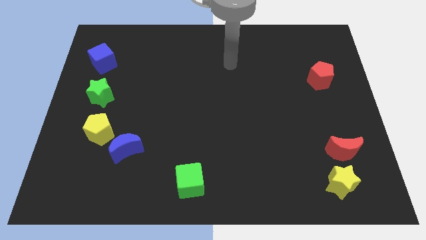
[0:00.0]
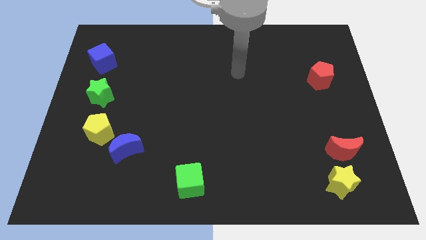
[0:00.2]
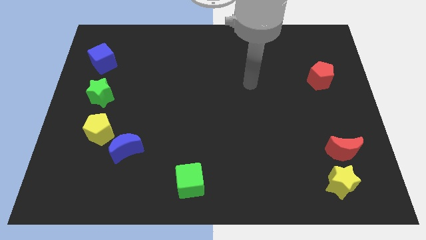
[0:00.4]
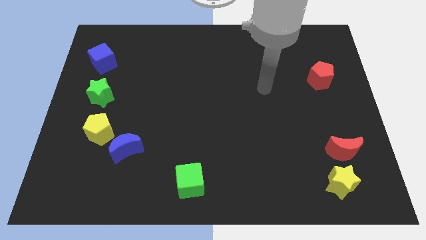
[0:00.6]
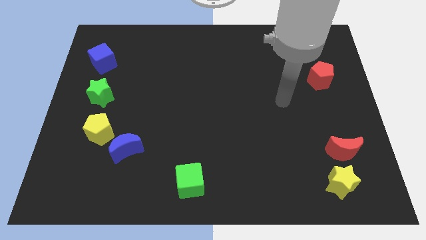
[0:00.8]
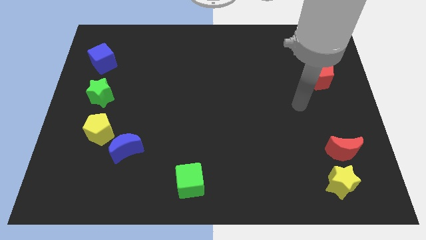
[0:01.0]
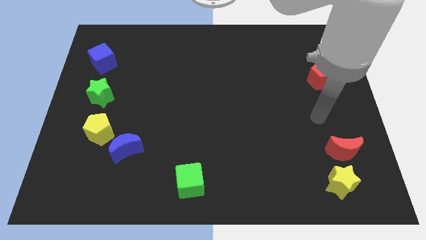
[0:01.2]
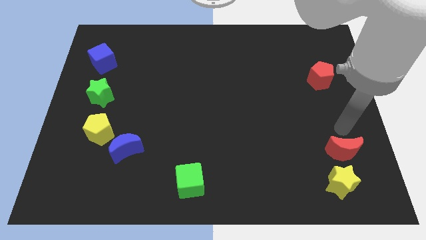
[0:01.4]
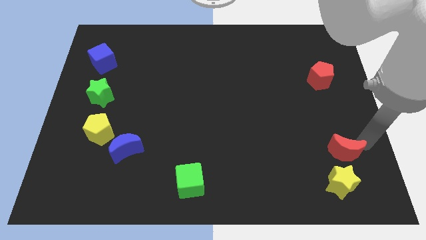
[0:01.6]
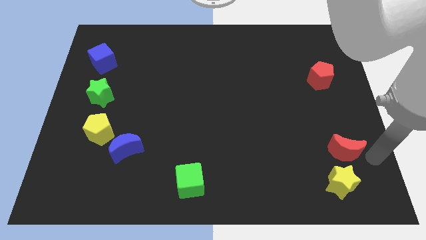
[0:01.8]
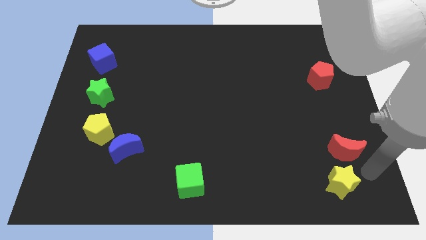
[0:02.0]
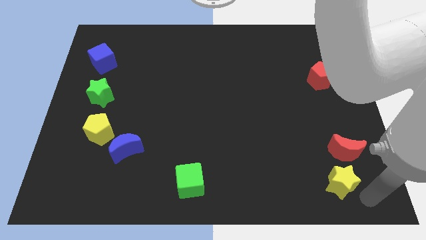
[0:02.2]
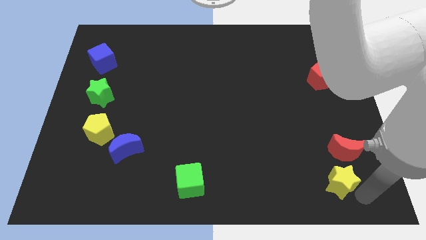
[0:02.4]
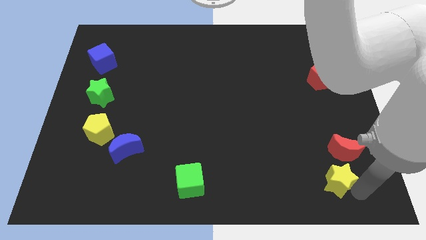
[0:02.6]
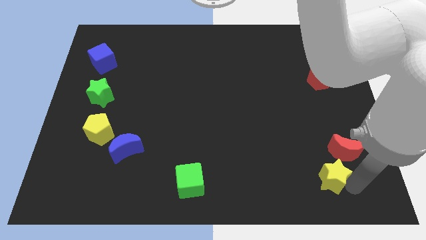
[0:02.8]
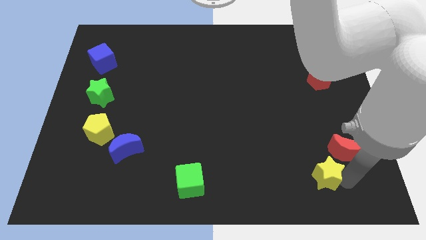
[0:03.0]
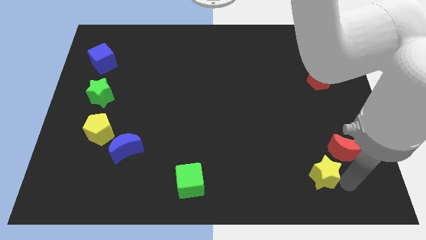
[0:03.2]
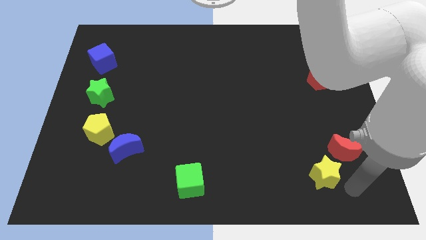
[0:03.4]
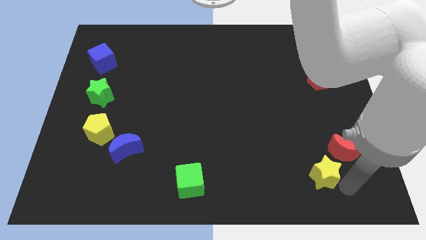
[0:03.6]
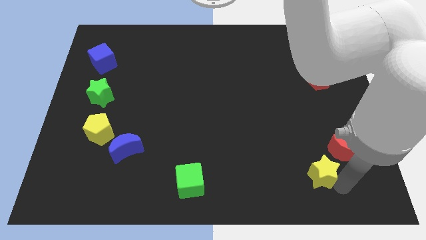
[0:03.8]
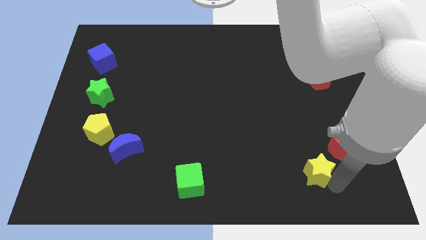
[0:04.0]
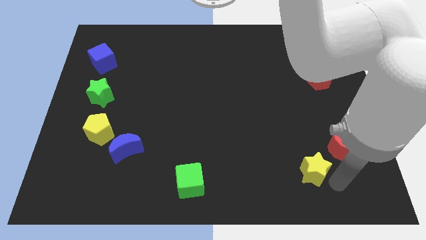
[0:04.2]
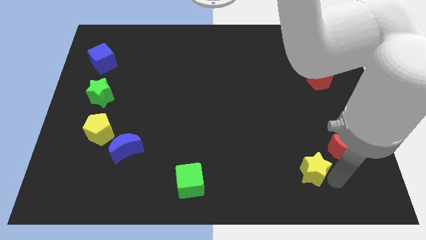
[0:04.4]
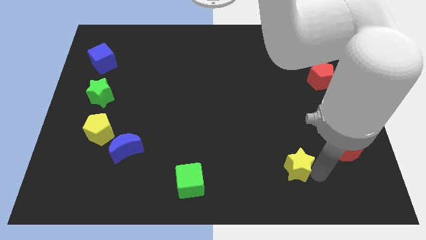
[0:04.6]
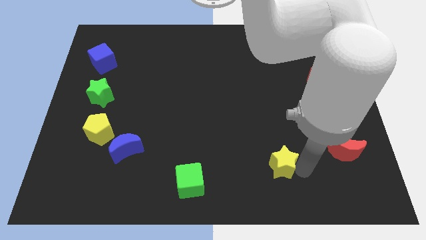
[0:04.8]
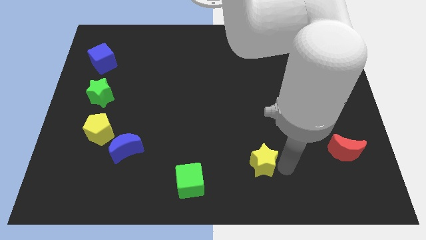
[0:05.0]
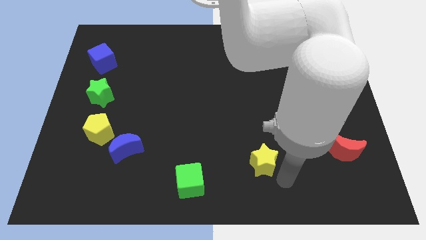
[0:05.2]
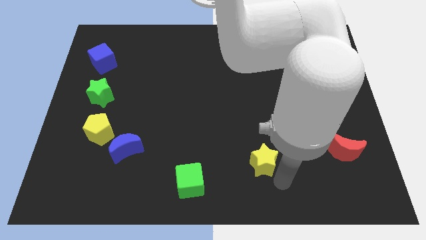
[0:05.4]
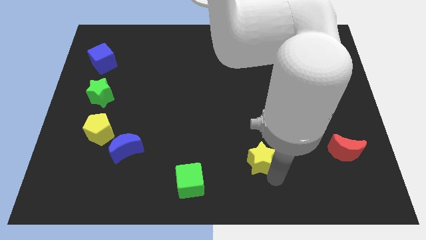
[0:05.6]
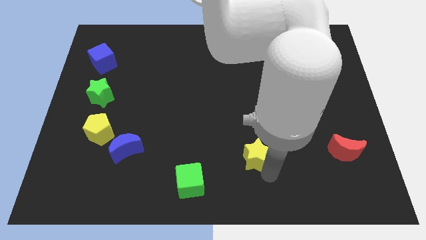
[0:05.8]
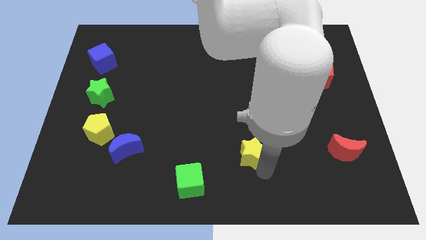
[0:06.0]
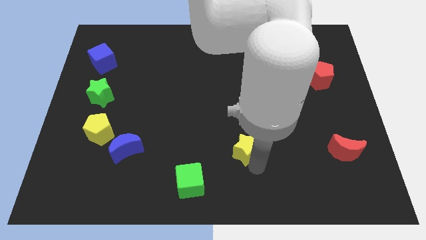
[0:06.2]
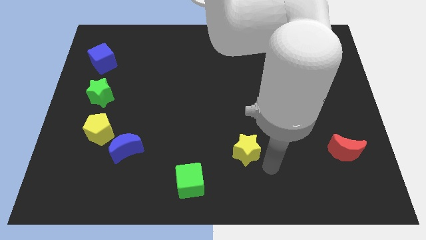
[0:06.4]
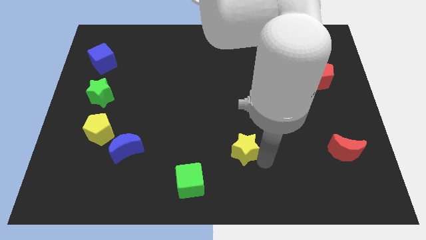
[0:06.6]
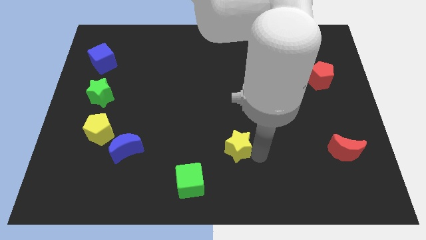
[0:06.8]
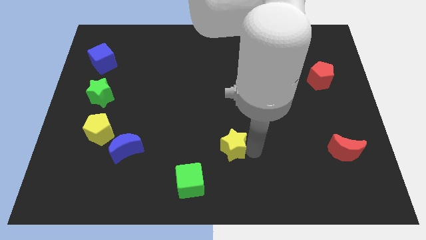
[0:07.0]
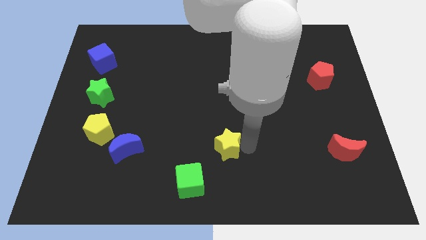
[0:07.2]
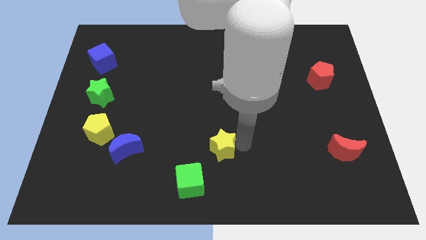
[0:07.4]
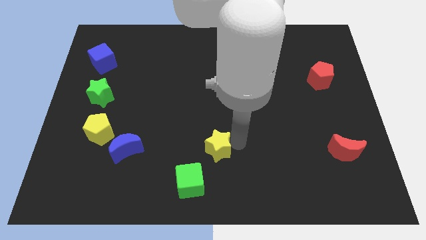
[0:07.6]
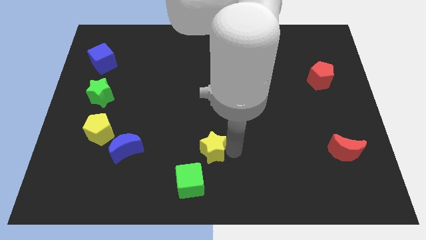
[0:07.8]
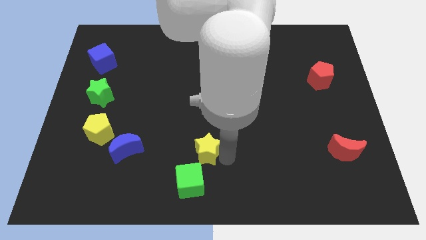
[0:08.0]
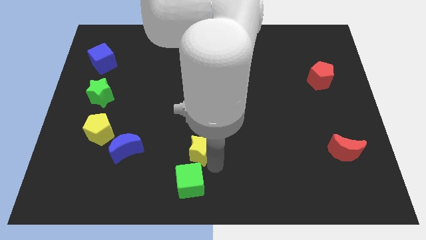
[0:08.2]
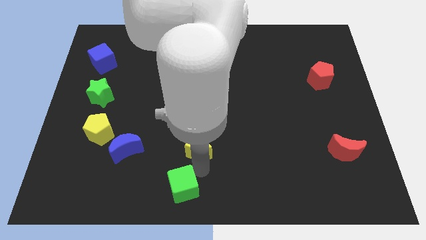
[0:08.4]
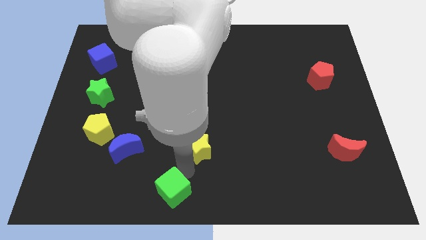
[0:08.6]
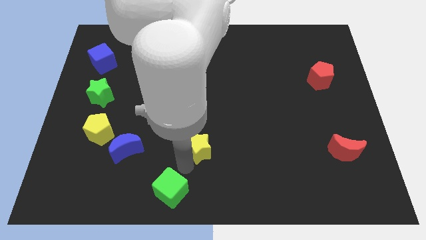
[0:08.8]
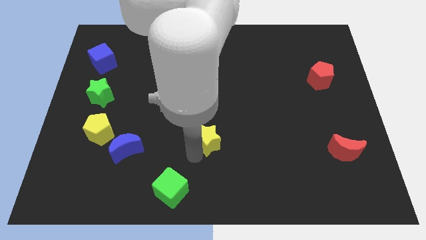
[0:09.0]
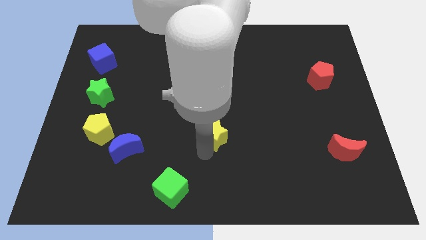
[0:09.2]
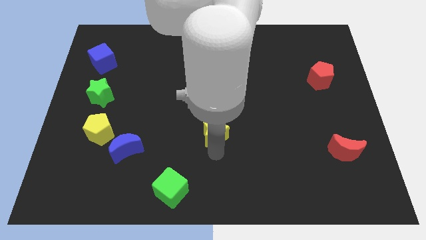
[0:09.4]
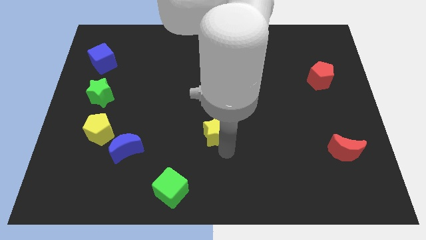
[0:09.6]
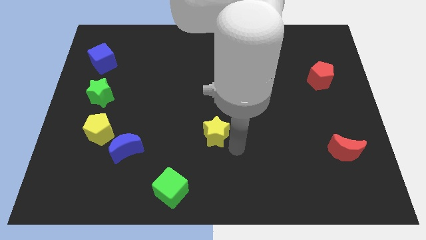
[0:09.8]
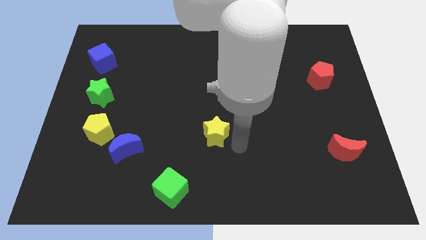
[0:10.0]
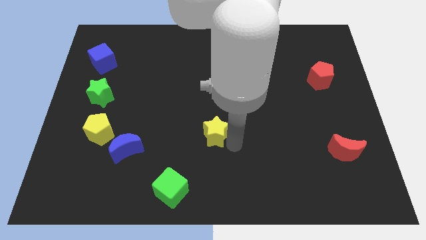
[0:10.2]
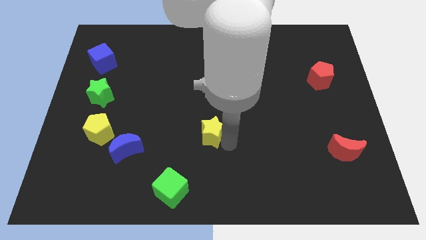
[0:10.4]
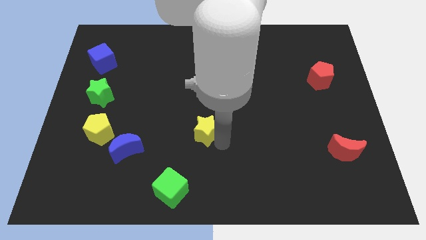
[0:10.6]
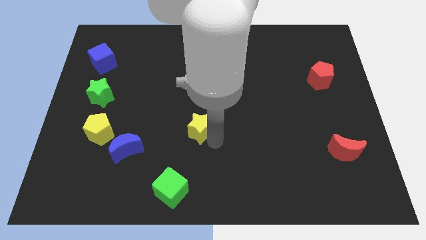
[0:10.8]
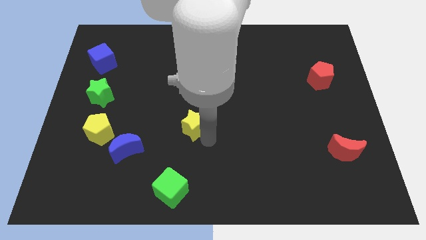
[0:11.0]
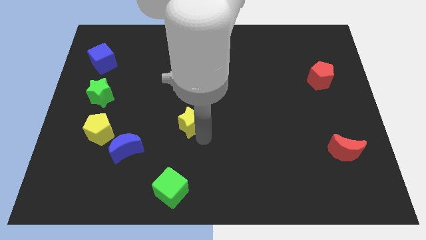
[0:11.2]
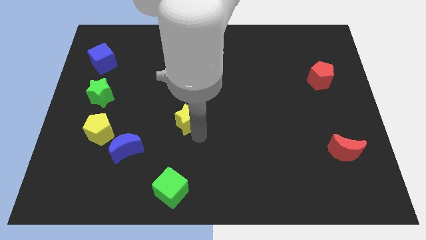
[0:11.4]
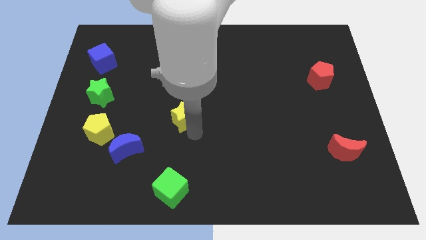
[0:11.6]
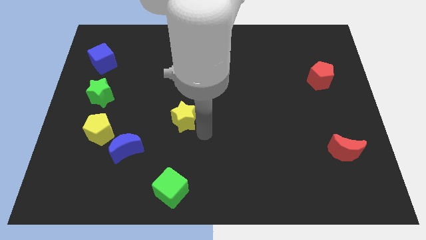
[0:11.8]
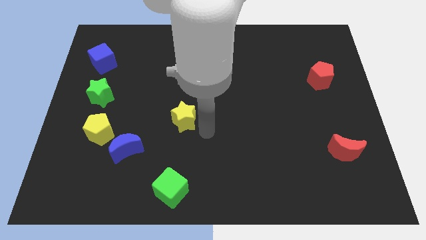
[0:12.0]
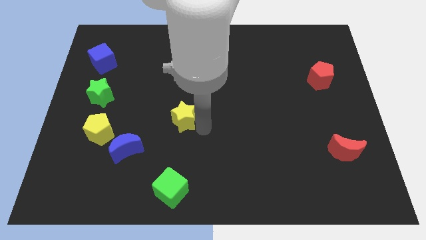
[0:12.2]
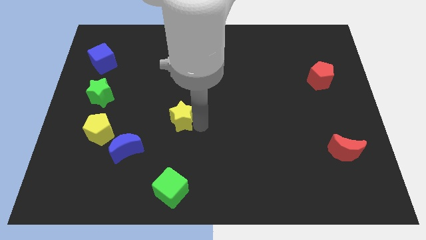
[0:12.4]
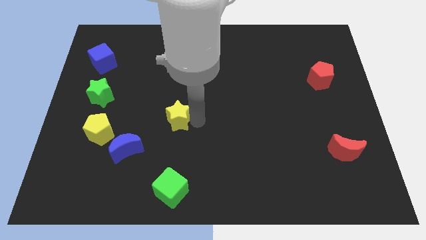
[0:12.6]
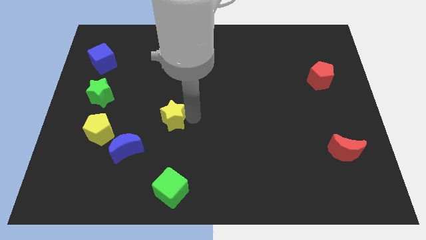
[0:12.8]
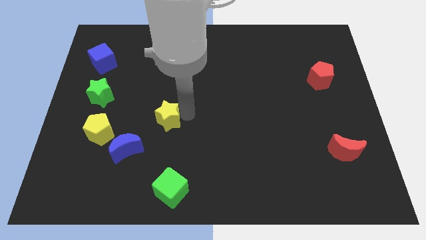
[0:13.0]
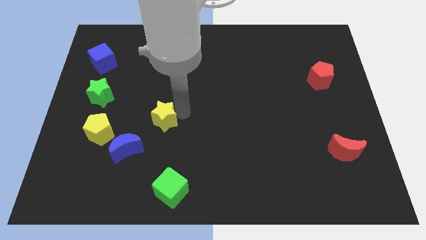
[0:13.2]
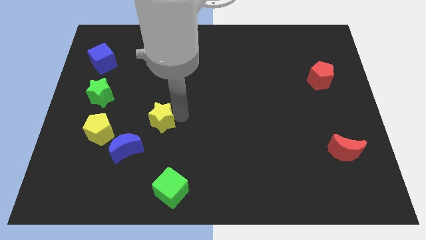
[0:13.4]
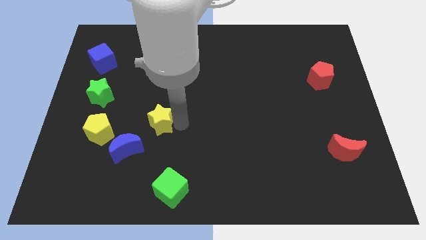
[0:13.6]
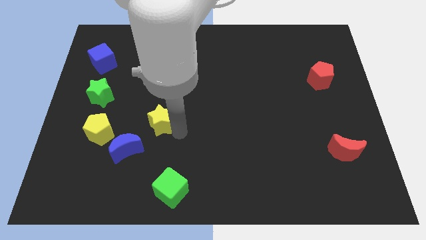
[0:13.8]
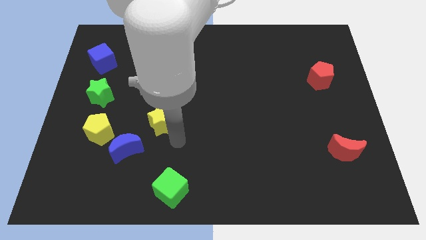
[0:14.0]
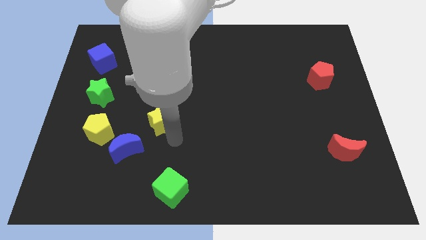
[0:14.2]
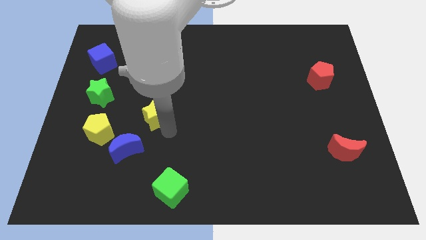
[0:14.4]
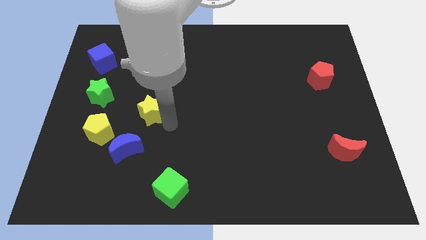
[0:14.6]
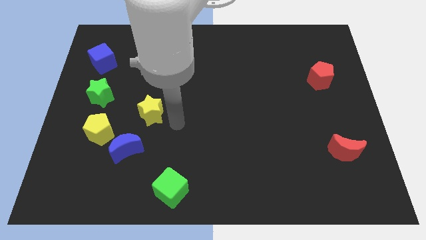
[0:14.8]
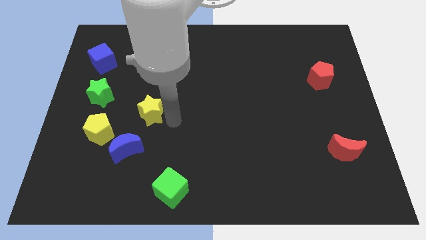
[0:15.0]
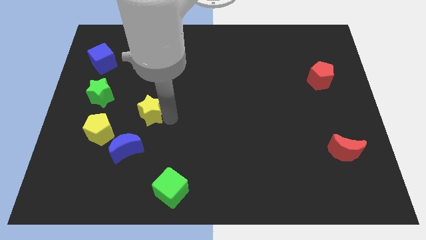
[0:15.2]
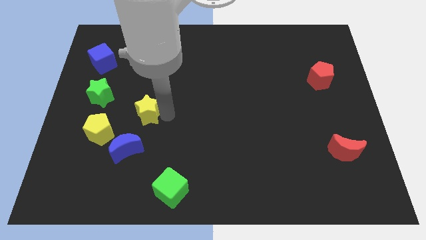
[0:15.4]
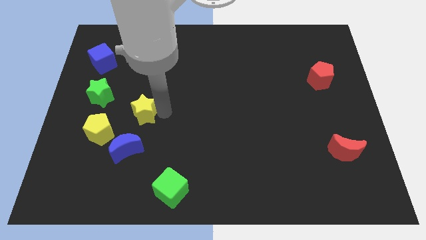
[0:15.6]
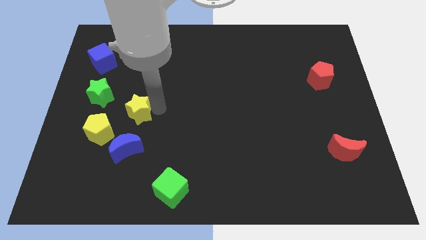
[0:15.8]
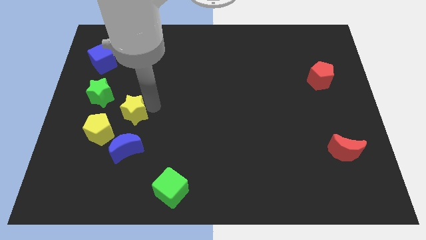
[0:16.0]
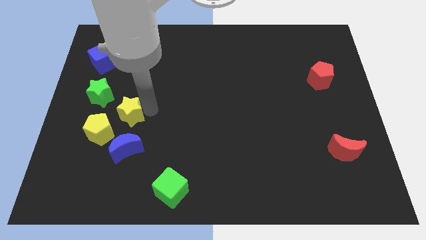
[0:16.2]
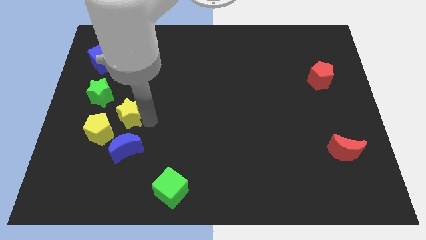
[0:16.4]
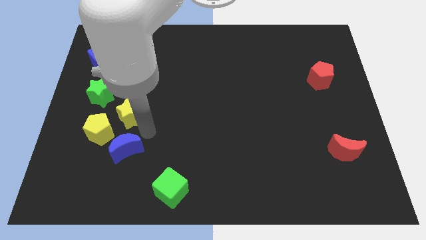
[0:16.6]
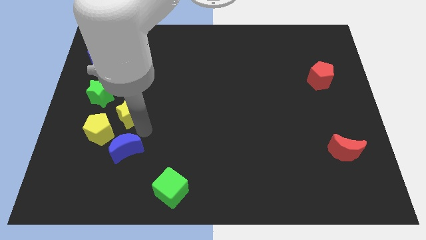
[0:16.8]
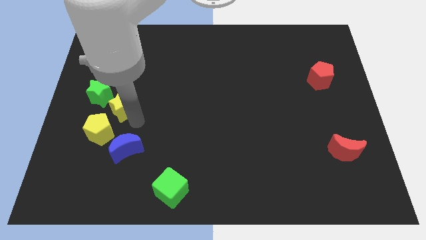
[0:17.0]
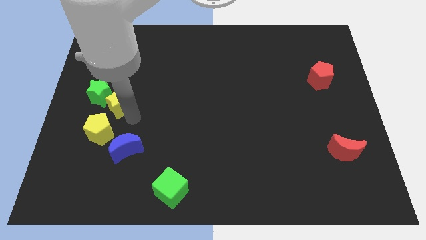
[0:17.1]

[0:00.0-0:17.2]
put the yellow star to the green star
